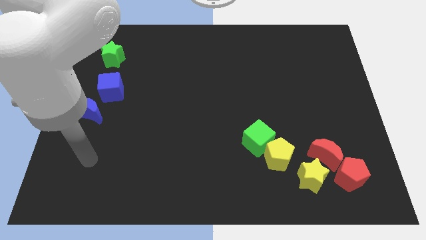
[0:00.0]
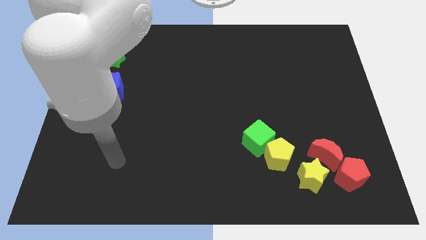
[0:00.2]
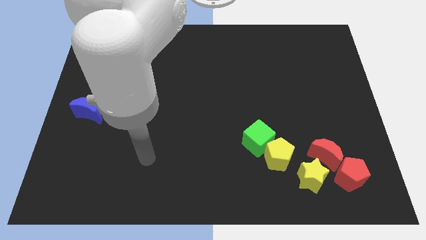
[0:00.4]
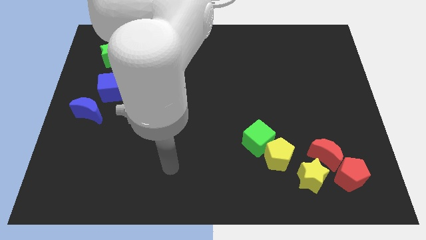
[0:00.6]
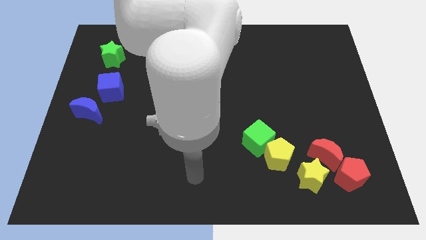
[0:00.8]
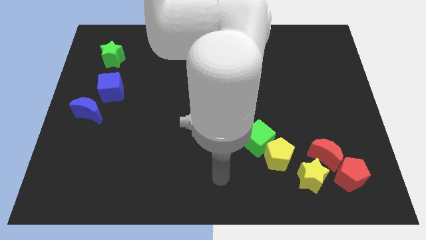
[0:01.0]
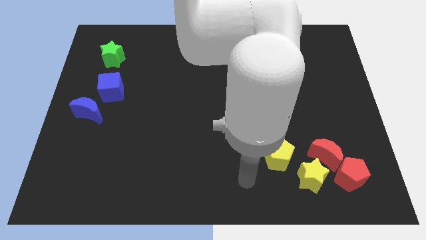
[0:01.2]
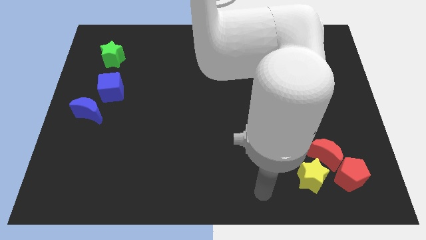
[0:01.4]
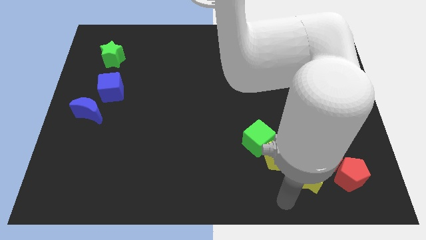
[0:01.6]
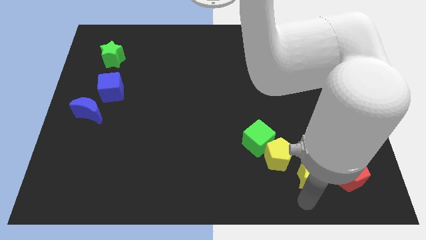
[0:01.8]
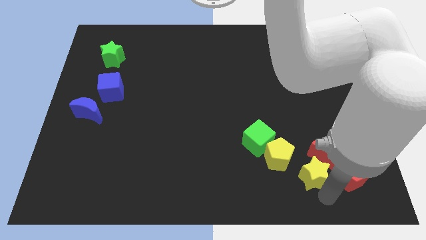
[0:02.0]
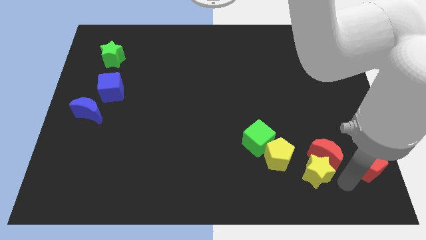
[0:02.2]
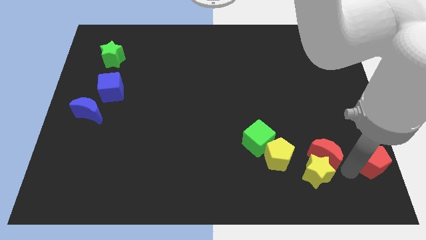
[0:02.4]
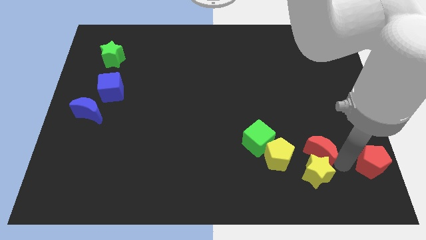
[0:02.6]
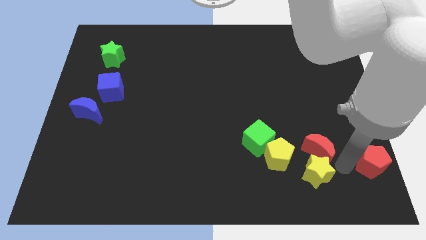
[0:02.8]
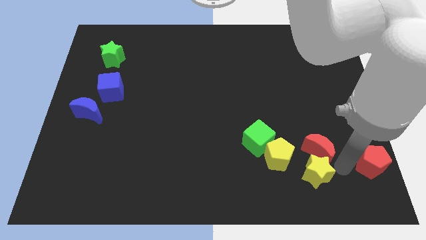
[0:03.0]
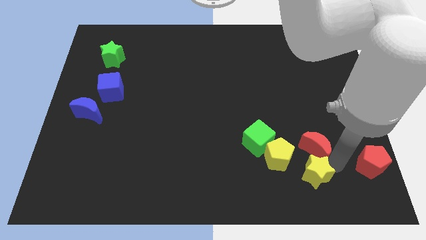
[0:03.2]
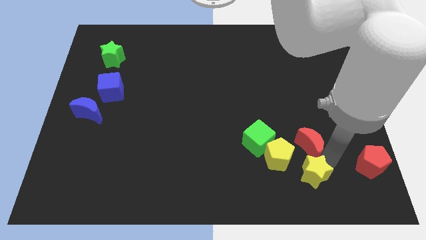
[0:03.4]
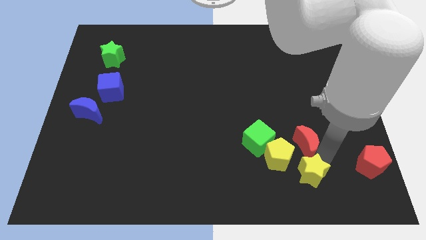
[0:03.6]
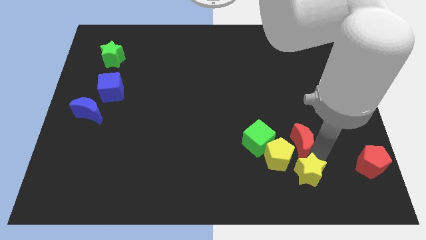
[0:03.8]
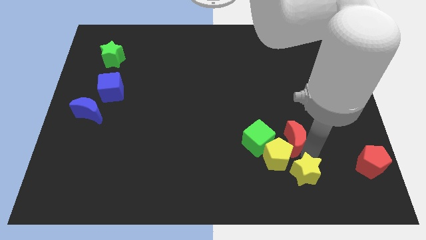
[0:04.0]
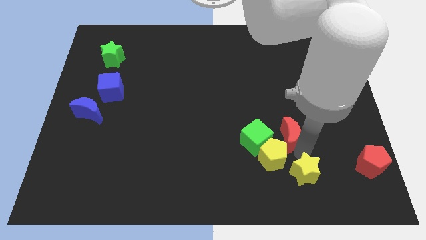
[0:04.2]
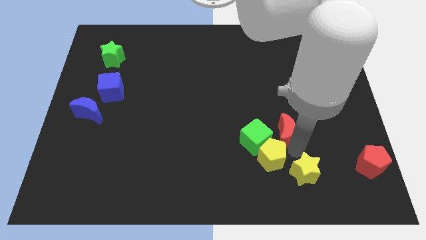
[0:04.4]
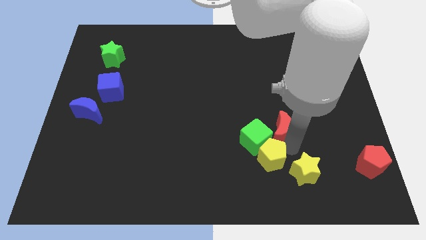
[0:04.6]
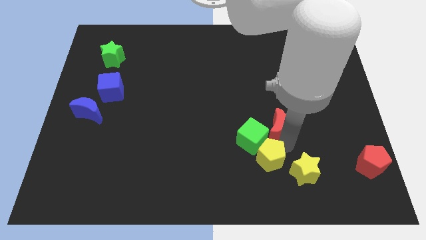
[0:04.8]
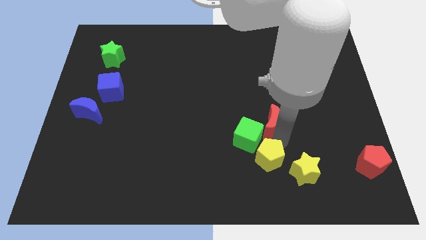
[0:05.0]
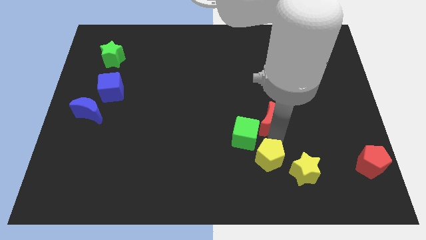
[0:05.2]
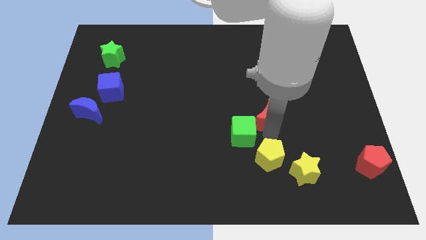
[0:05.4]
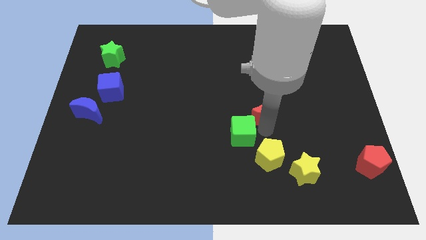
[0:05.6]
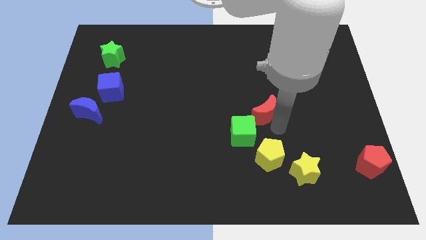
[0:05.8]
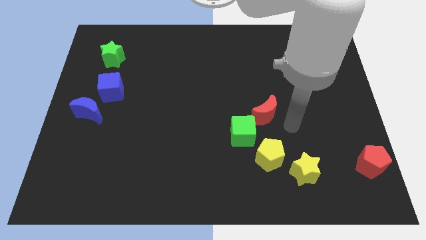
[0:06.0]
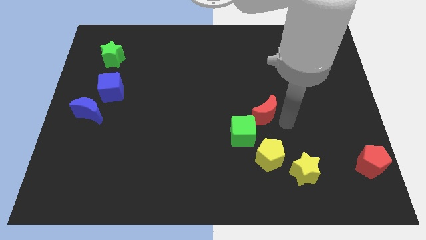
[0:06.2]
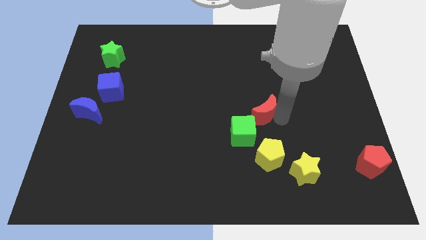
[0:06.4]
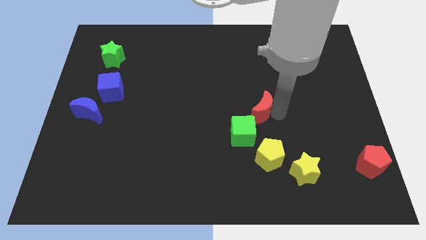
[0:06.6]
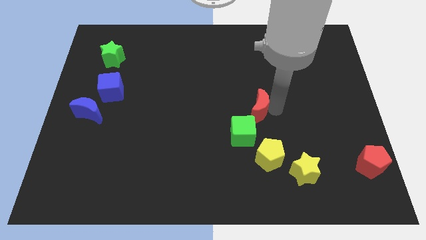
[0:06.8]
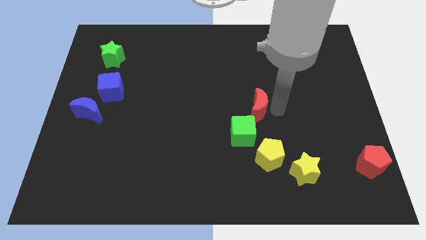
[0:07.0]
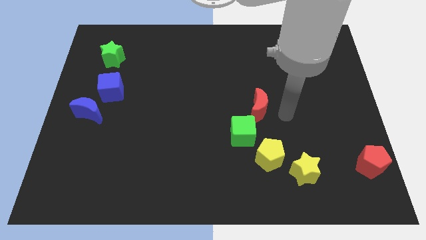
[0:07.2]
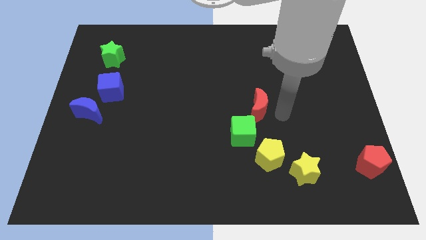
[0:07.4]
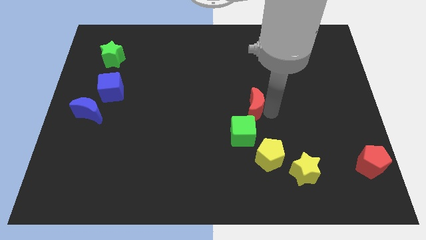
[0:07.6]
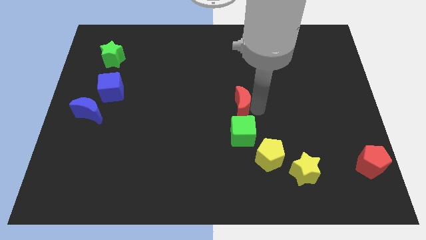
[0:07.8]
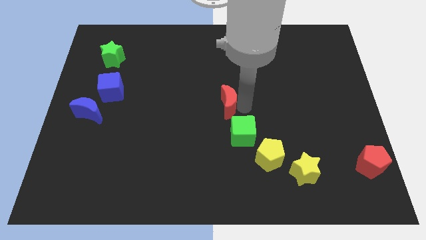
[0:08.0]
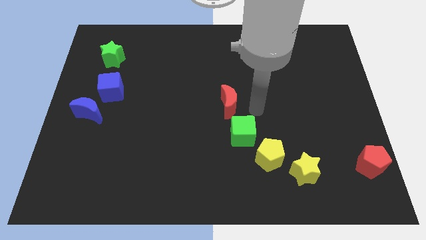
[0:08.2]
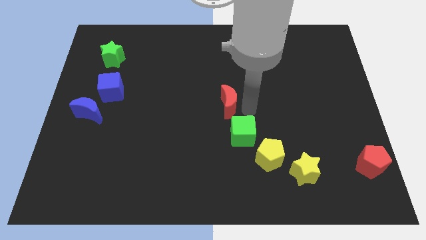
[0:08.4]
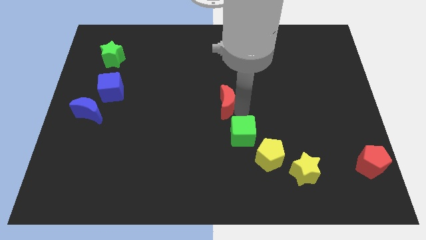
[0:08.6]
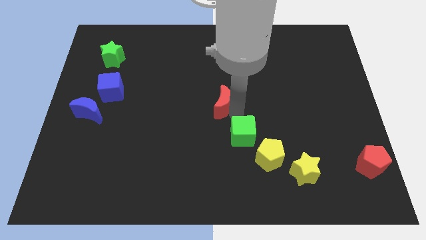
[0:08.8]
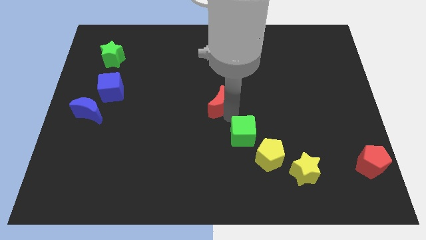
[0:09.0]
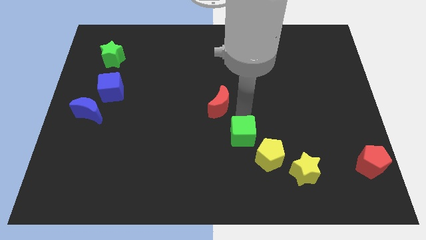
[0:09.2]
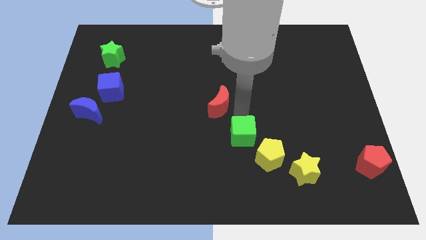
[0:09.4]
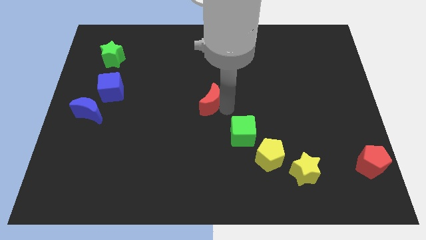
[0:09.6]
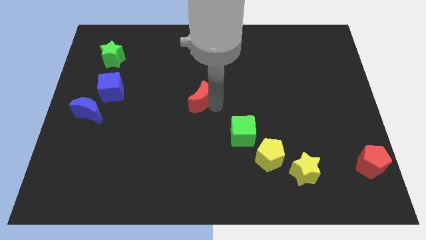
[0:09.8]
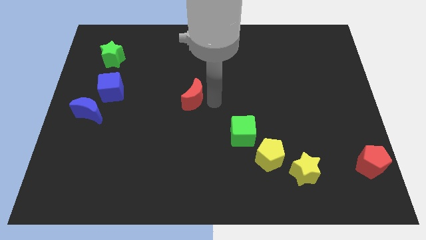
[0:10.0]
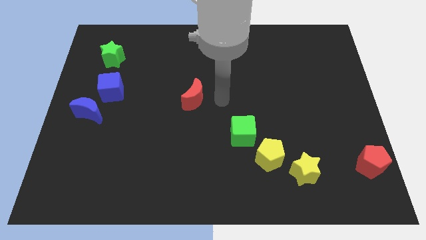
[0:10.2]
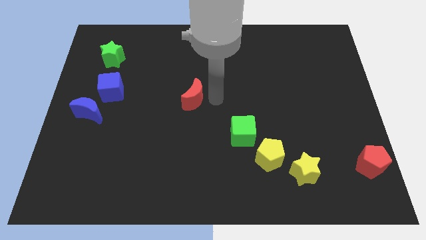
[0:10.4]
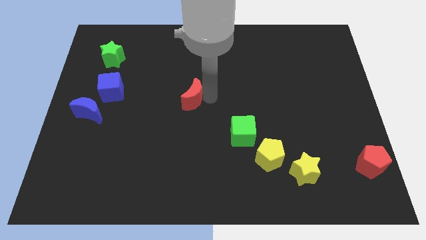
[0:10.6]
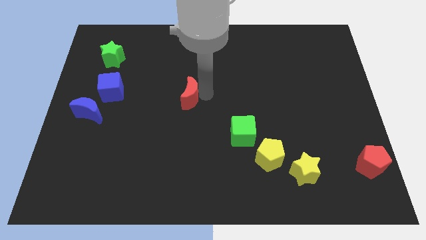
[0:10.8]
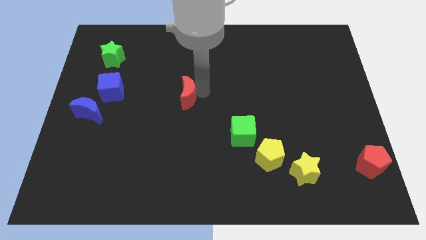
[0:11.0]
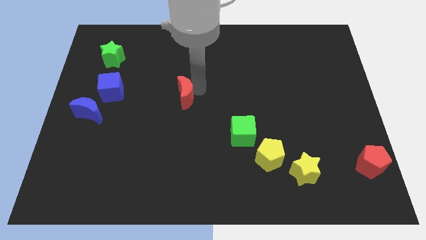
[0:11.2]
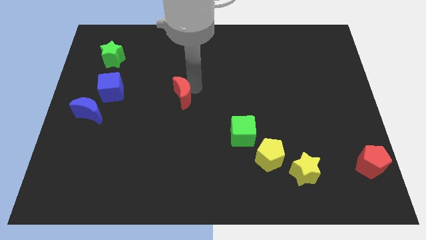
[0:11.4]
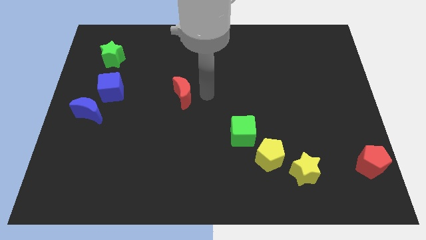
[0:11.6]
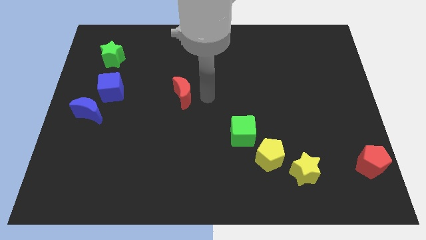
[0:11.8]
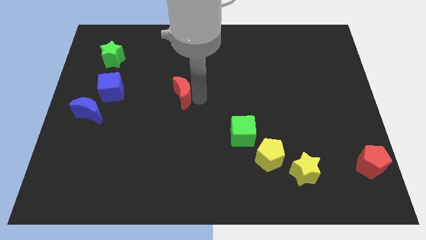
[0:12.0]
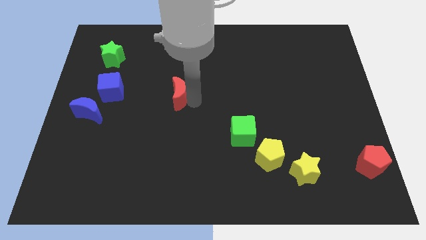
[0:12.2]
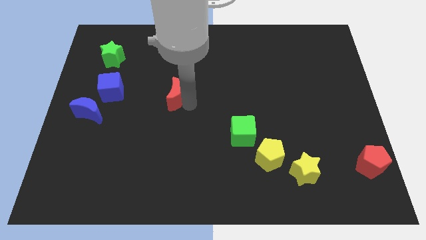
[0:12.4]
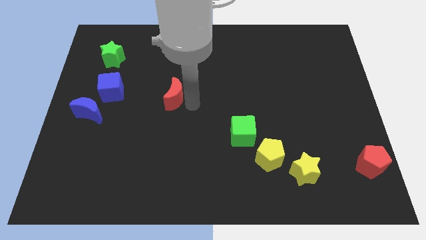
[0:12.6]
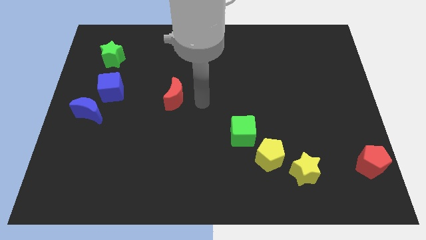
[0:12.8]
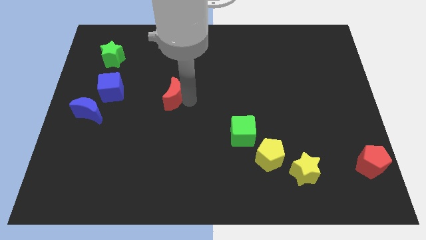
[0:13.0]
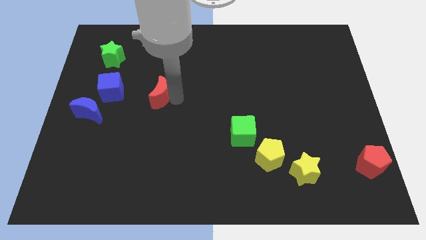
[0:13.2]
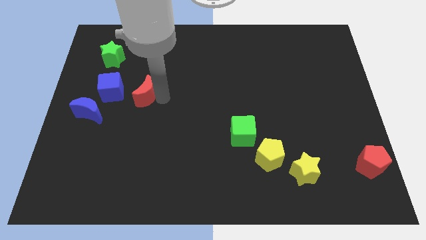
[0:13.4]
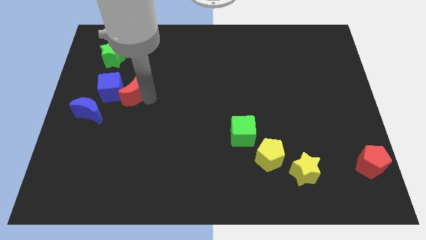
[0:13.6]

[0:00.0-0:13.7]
push the red moon to the top right of the blue moon

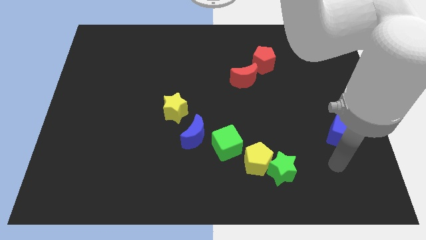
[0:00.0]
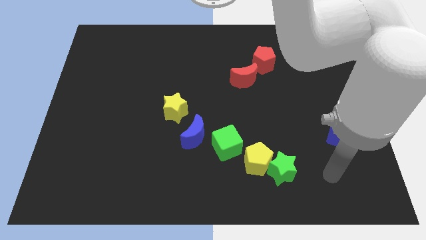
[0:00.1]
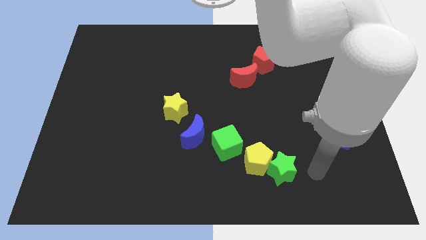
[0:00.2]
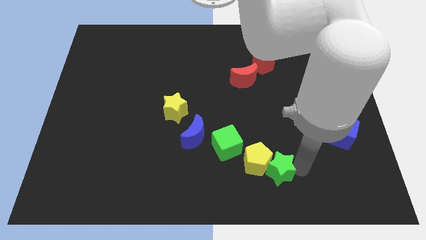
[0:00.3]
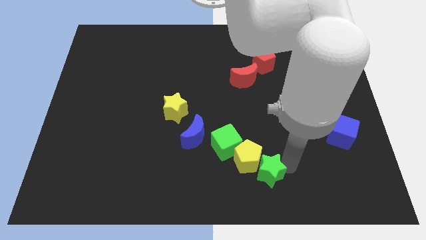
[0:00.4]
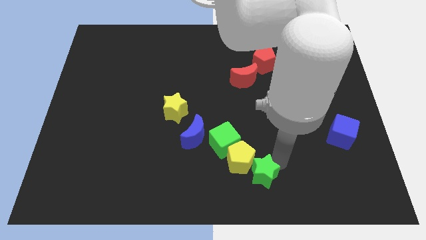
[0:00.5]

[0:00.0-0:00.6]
put the yellow pentagon to the bottom right of the blue moon

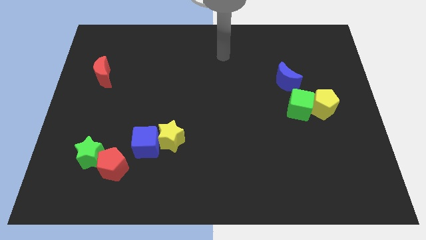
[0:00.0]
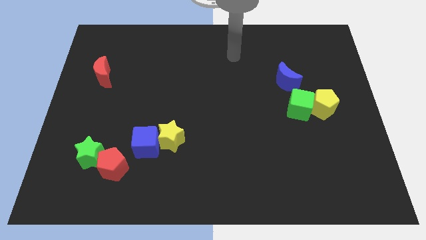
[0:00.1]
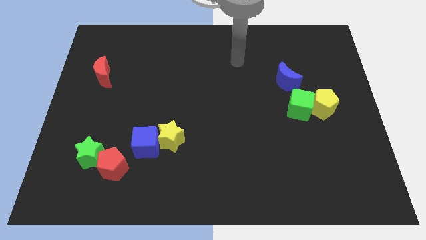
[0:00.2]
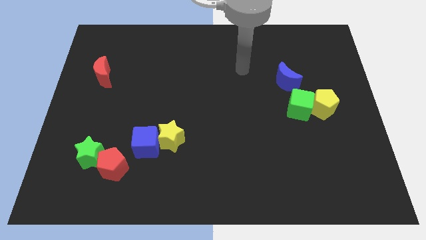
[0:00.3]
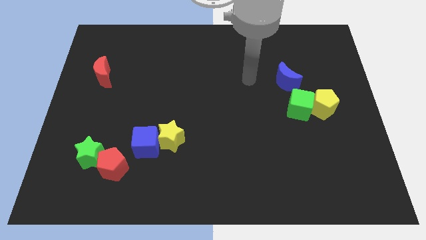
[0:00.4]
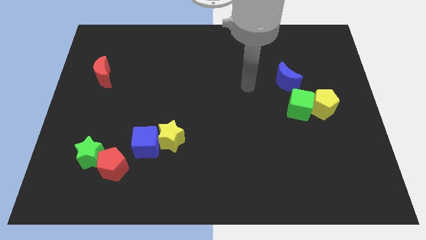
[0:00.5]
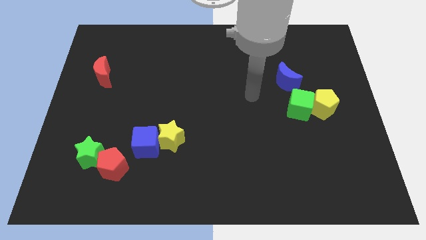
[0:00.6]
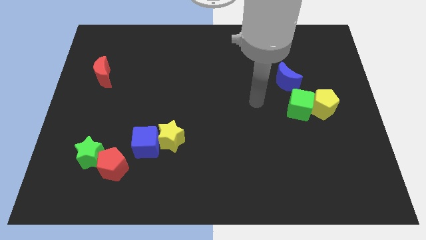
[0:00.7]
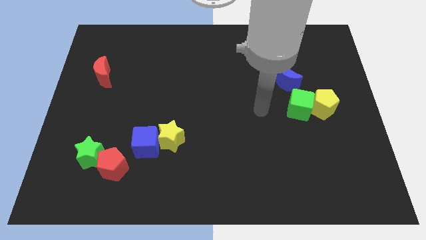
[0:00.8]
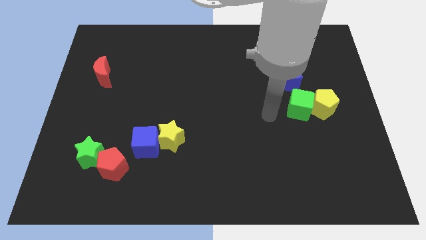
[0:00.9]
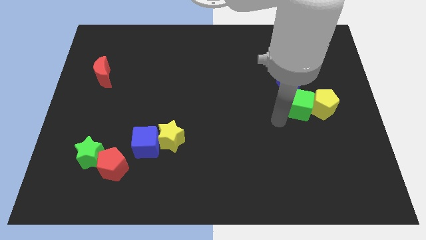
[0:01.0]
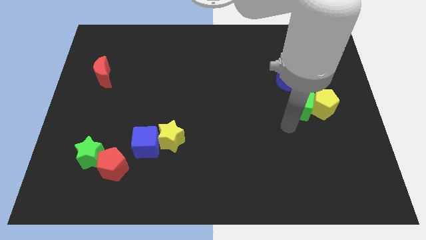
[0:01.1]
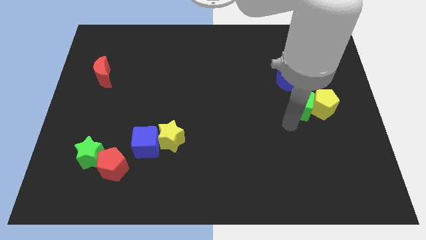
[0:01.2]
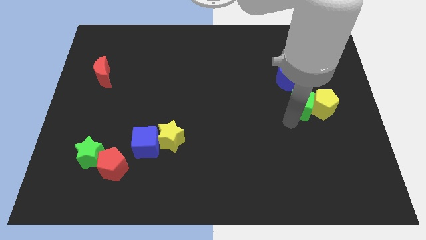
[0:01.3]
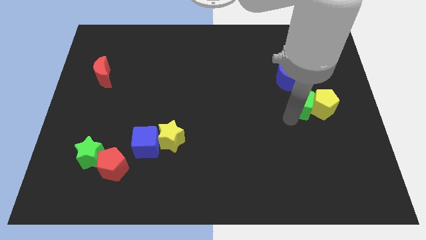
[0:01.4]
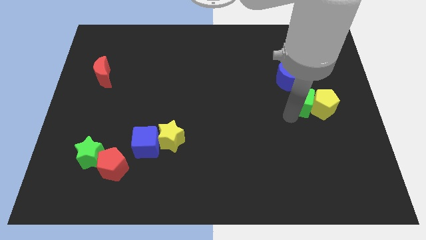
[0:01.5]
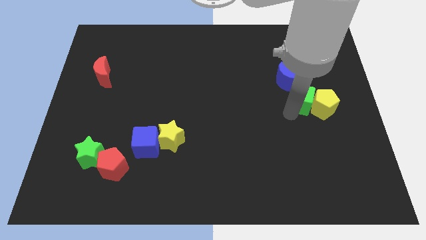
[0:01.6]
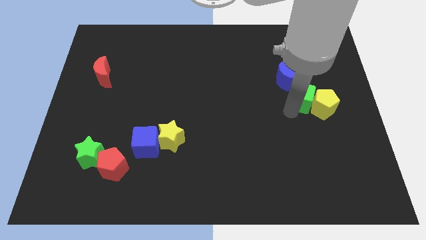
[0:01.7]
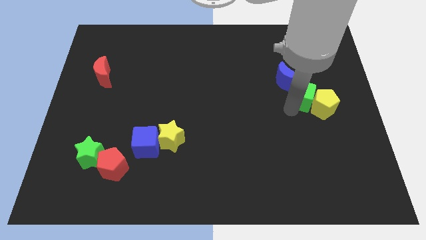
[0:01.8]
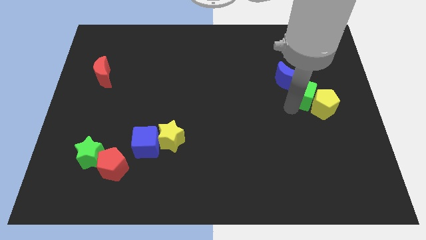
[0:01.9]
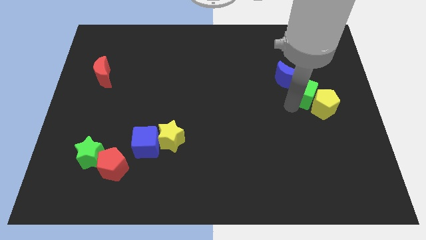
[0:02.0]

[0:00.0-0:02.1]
slide the green cube to the top of the yellow pentagon
